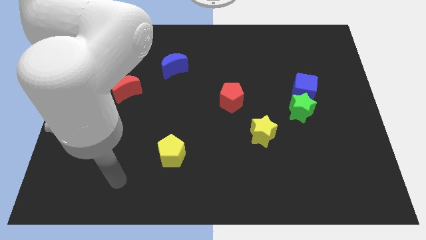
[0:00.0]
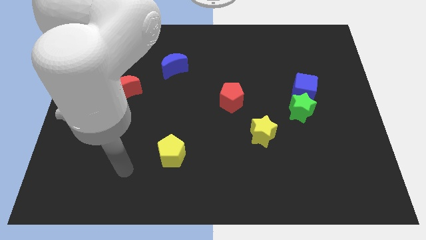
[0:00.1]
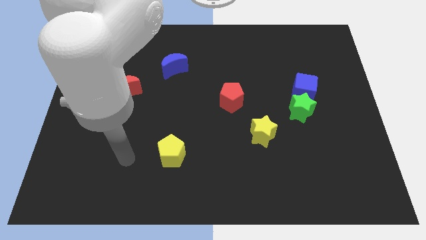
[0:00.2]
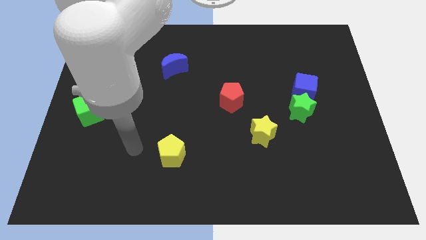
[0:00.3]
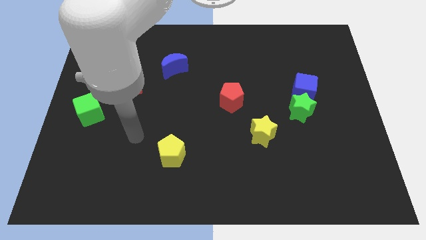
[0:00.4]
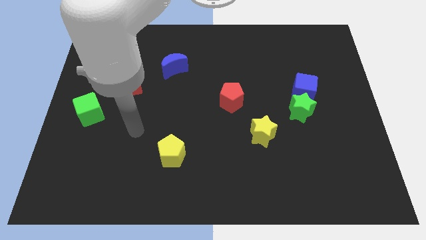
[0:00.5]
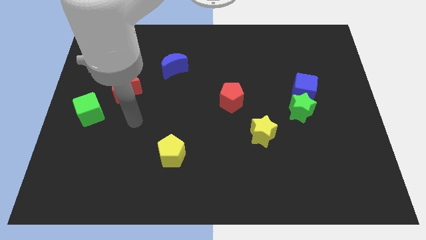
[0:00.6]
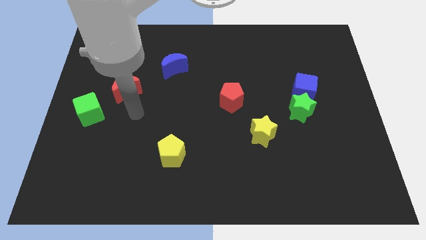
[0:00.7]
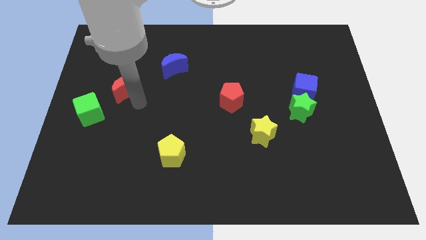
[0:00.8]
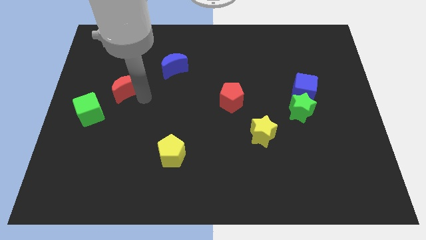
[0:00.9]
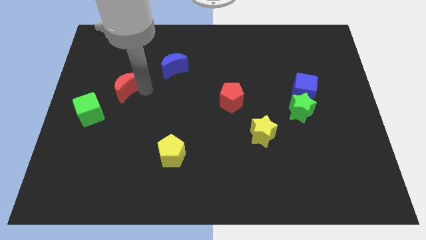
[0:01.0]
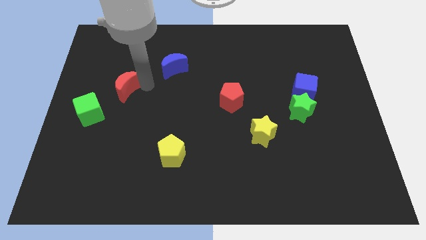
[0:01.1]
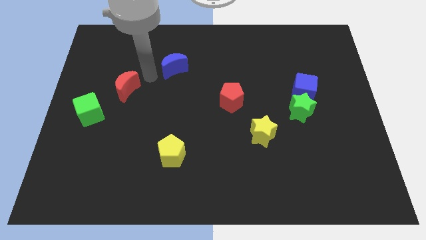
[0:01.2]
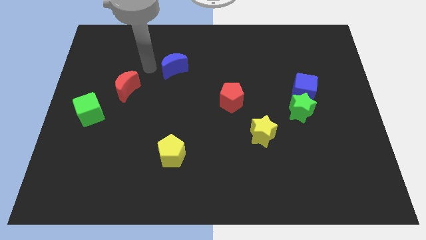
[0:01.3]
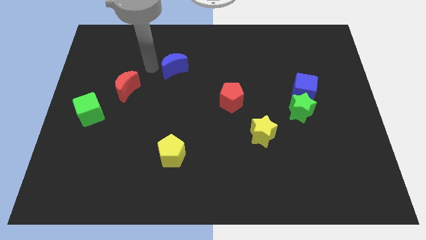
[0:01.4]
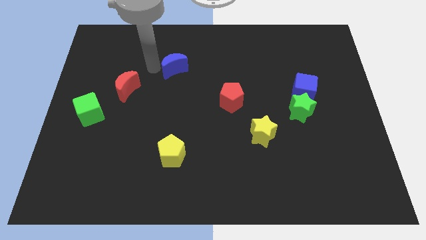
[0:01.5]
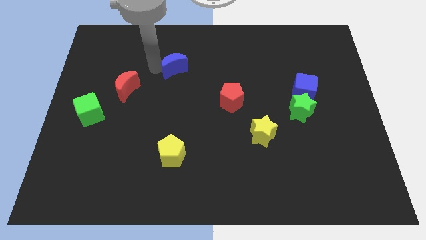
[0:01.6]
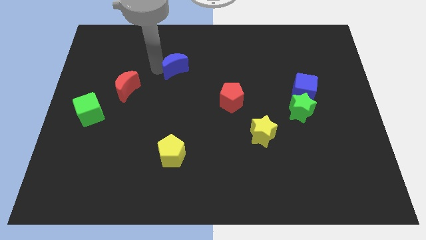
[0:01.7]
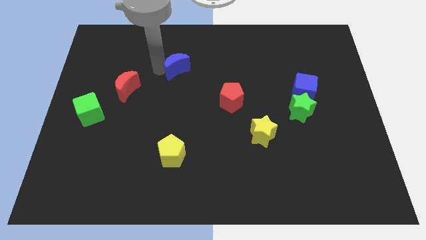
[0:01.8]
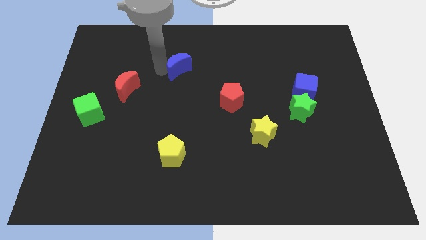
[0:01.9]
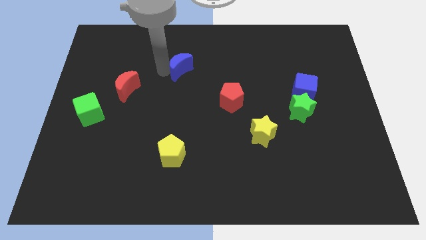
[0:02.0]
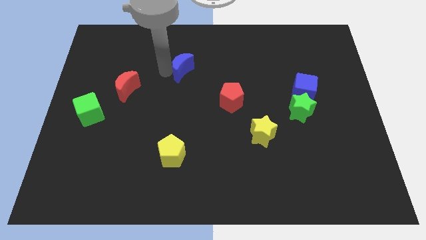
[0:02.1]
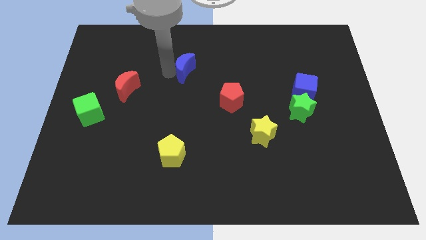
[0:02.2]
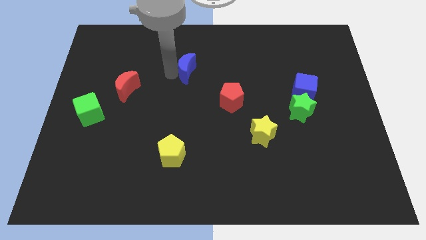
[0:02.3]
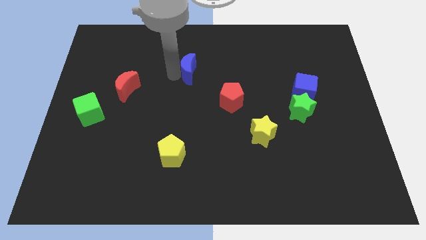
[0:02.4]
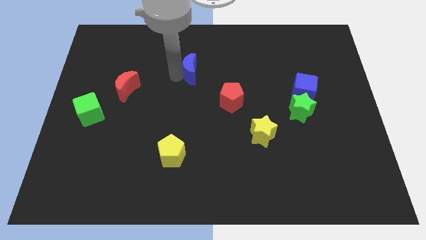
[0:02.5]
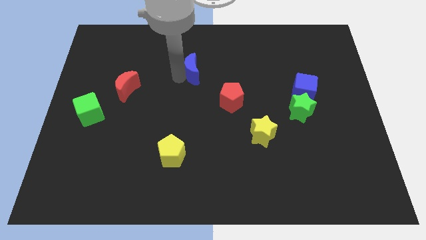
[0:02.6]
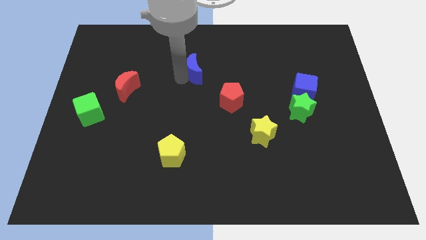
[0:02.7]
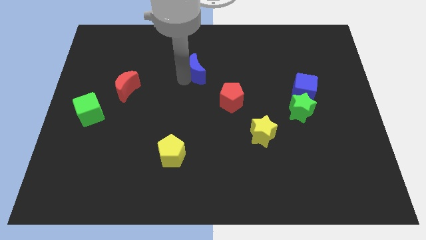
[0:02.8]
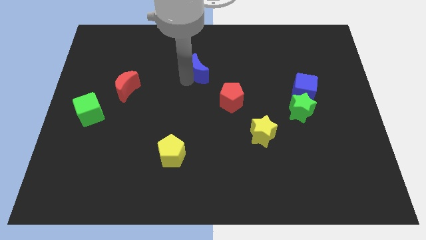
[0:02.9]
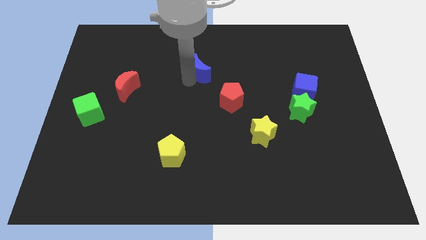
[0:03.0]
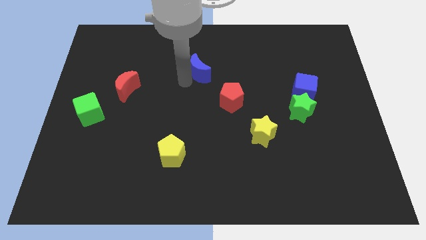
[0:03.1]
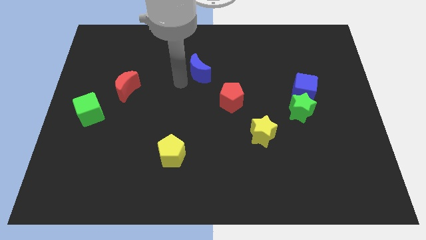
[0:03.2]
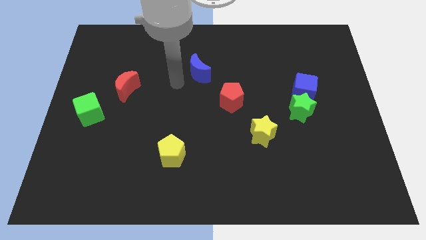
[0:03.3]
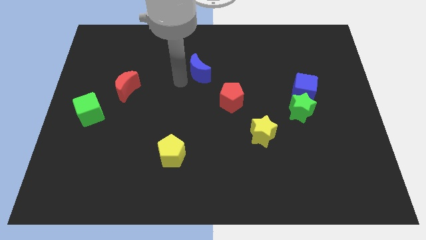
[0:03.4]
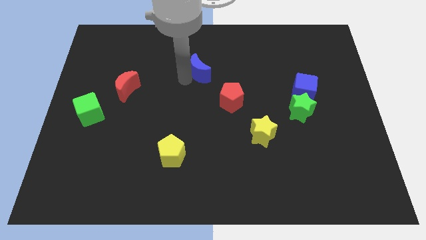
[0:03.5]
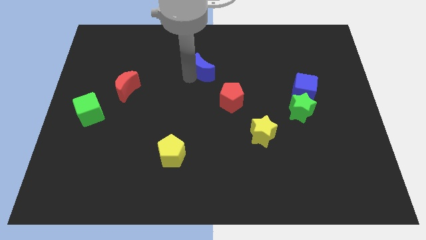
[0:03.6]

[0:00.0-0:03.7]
push the blue moon right slightly

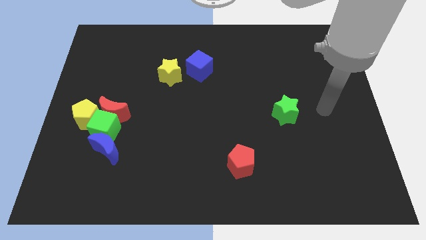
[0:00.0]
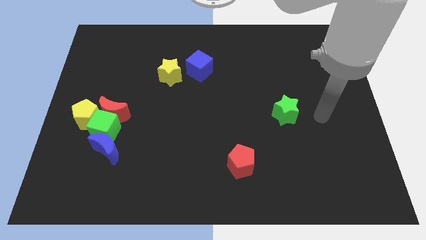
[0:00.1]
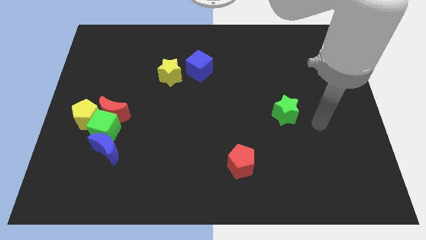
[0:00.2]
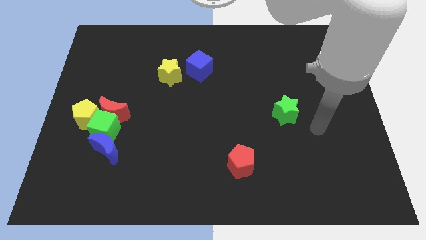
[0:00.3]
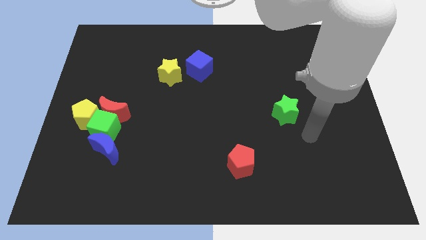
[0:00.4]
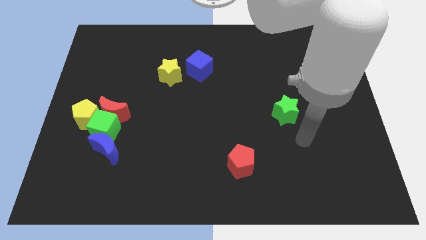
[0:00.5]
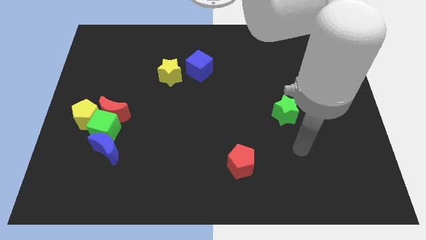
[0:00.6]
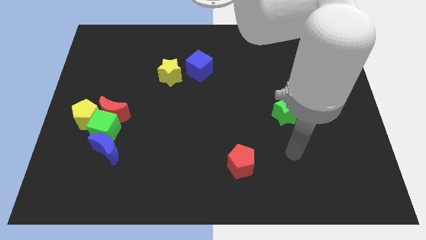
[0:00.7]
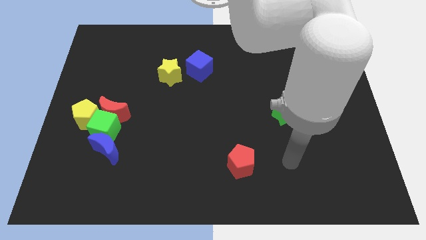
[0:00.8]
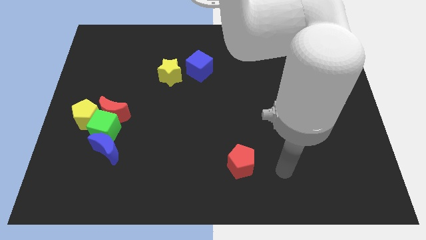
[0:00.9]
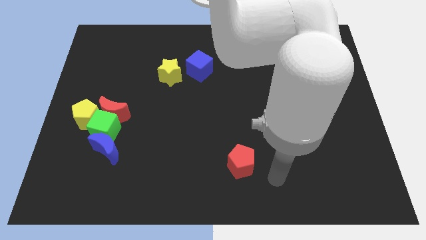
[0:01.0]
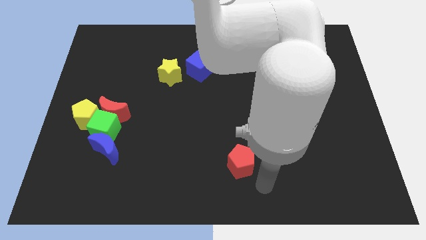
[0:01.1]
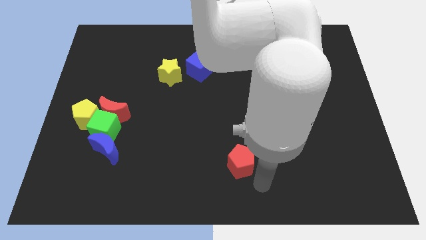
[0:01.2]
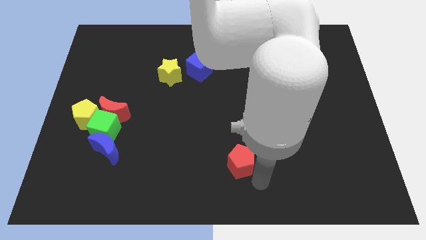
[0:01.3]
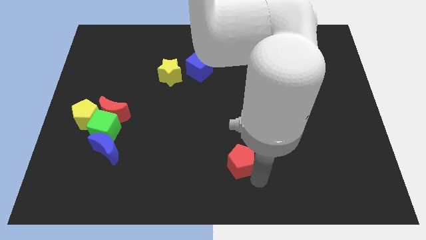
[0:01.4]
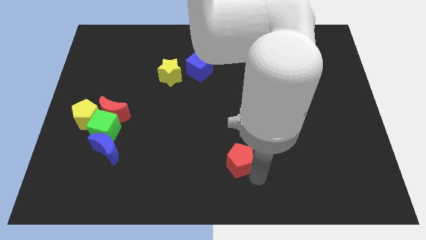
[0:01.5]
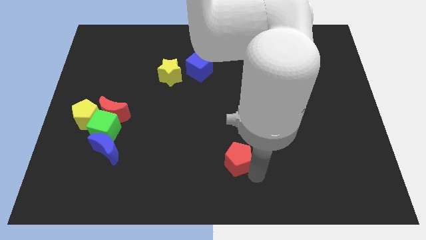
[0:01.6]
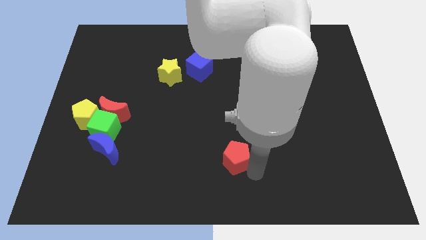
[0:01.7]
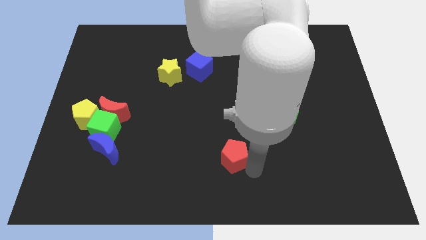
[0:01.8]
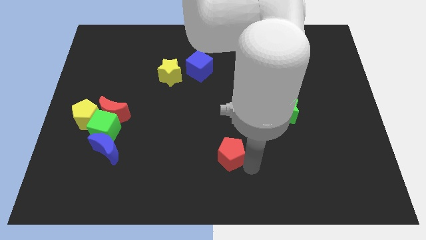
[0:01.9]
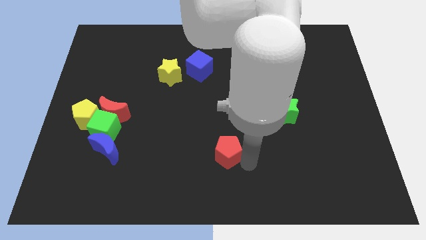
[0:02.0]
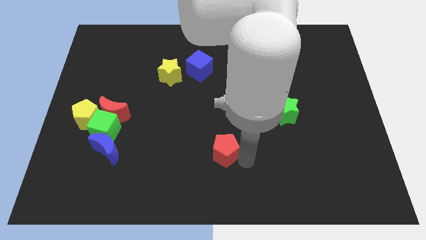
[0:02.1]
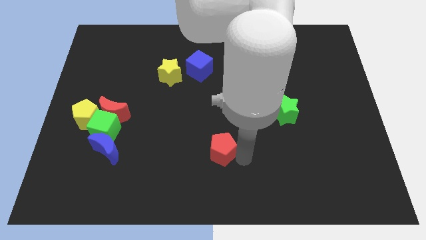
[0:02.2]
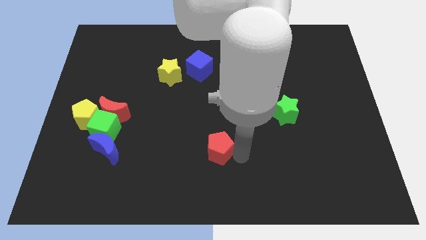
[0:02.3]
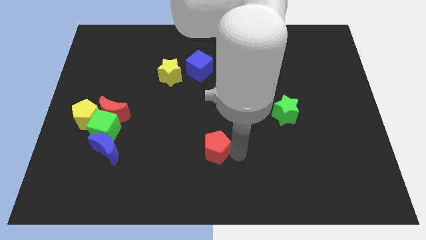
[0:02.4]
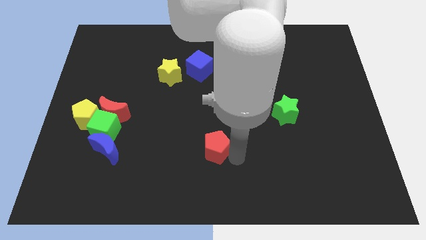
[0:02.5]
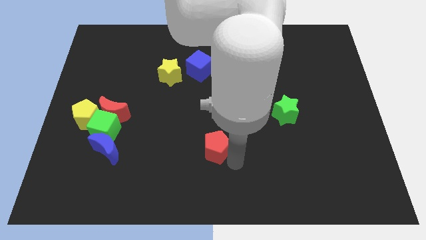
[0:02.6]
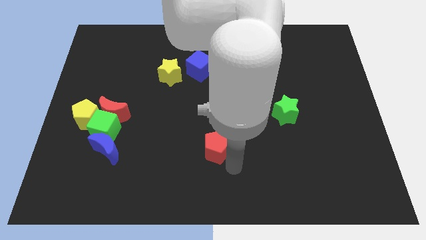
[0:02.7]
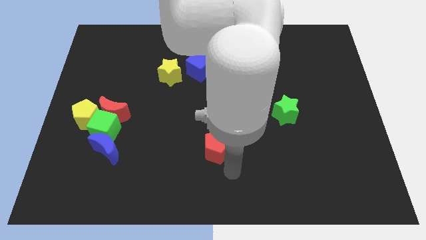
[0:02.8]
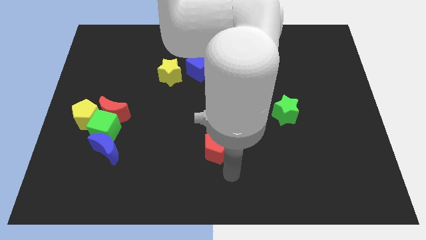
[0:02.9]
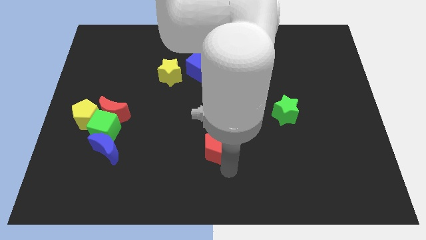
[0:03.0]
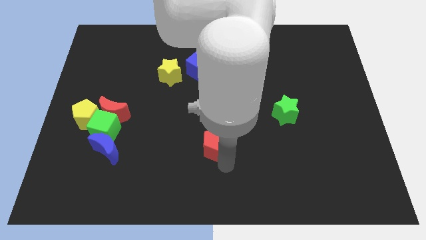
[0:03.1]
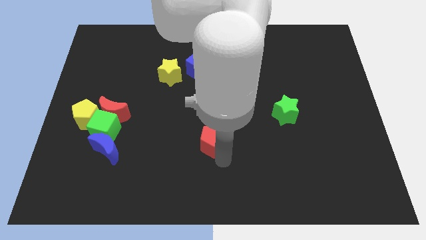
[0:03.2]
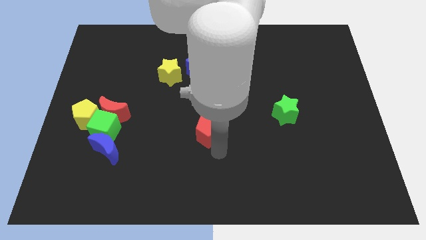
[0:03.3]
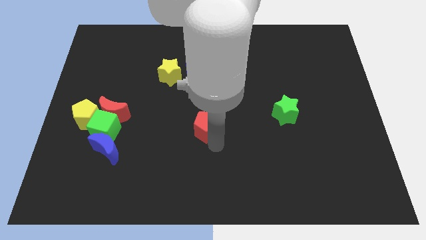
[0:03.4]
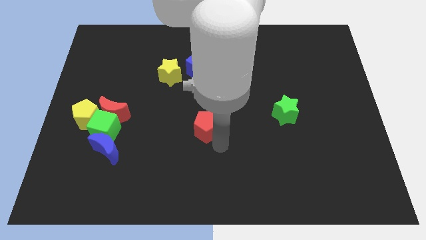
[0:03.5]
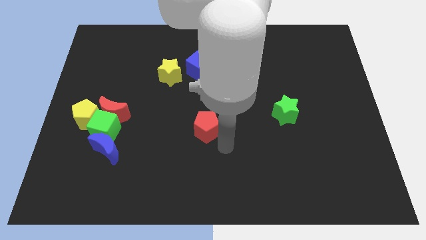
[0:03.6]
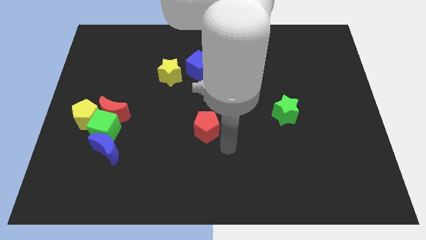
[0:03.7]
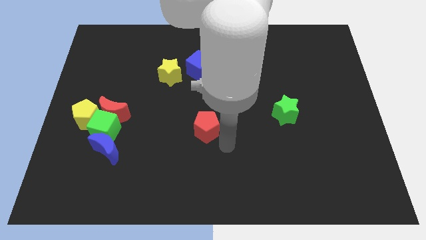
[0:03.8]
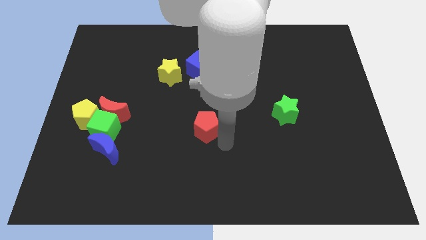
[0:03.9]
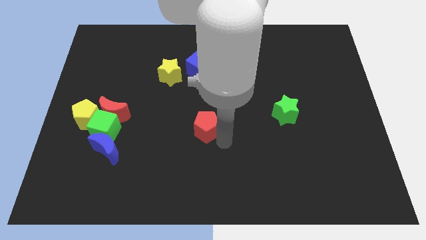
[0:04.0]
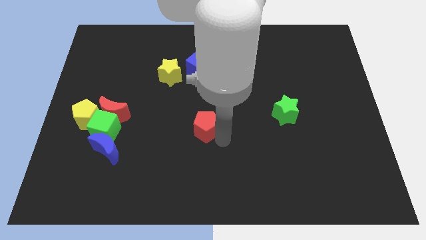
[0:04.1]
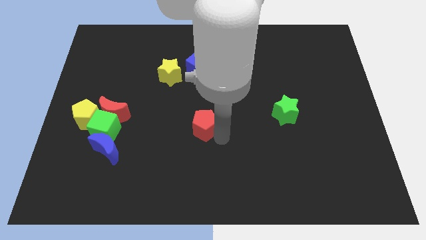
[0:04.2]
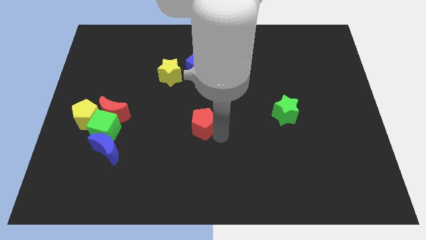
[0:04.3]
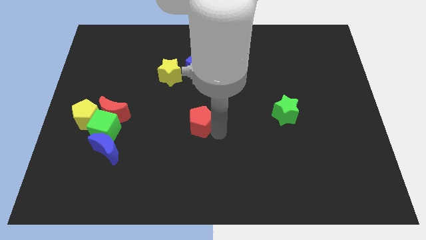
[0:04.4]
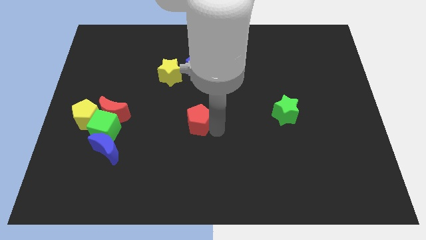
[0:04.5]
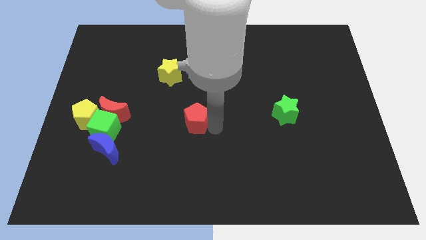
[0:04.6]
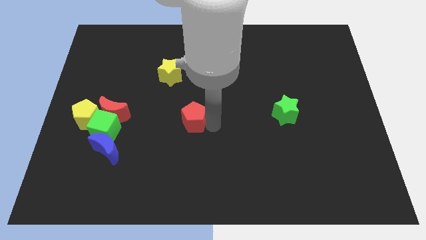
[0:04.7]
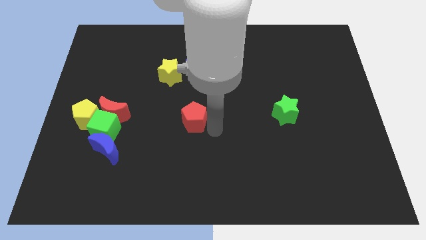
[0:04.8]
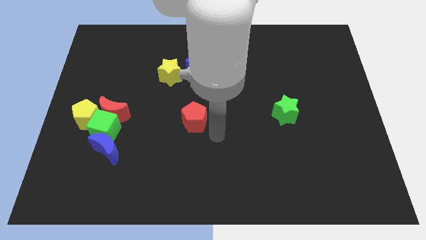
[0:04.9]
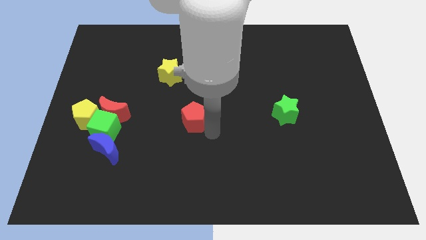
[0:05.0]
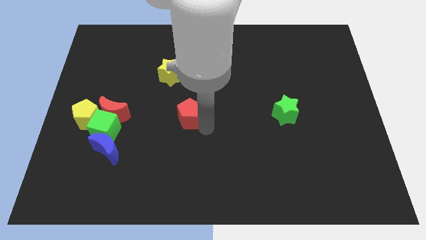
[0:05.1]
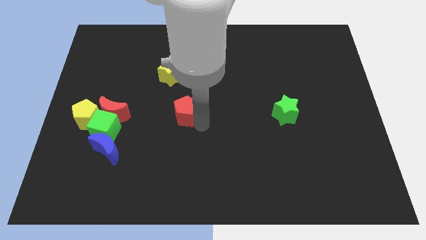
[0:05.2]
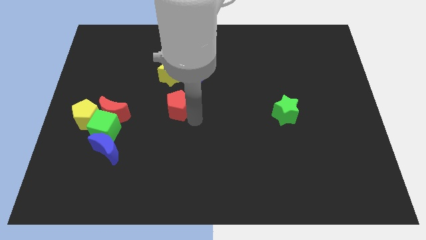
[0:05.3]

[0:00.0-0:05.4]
push the red pentagon upwards and left
